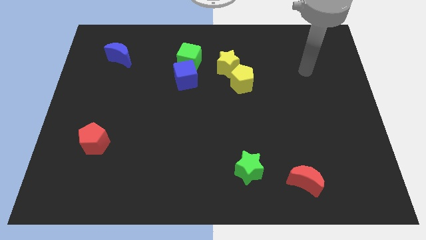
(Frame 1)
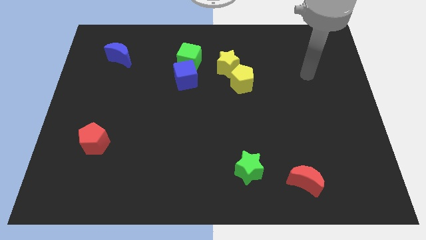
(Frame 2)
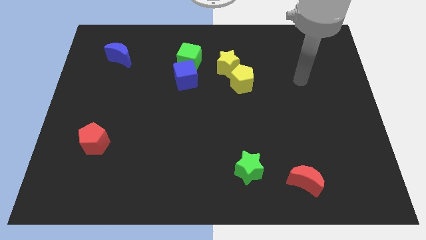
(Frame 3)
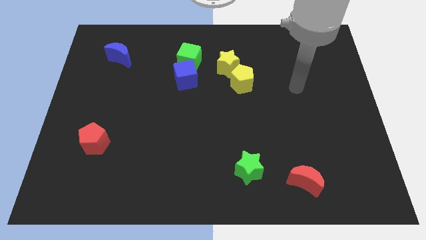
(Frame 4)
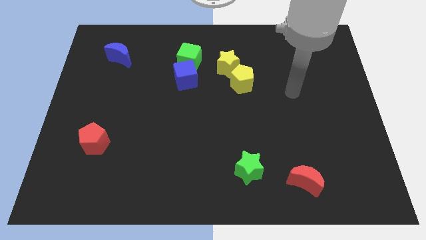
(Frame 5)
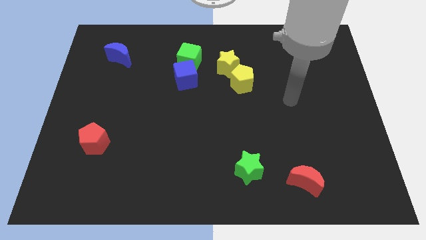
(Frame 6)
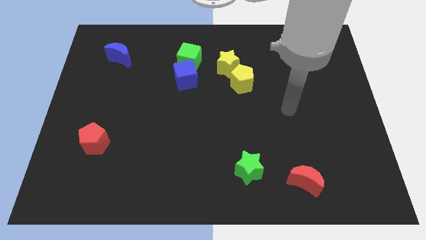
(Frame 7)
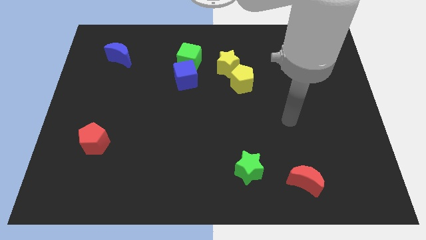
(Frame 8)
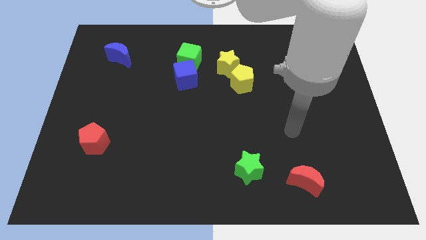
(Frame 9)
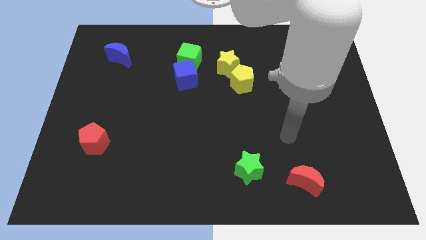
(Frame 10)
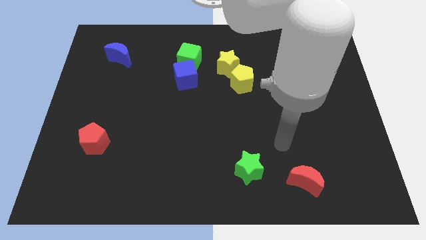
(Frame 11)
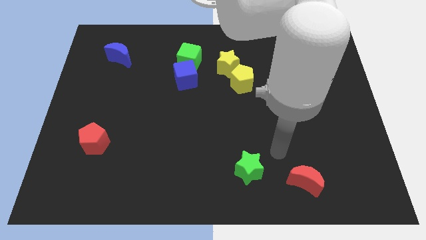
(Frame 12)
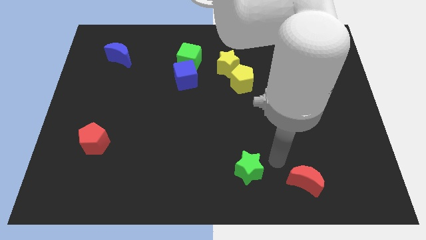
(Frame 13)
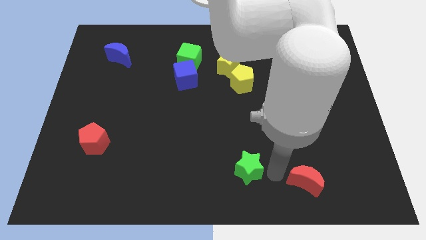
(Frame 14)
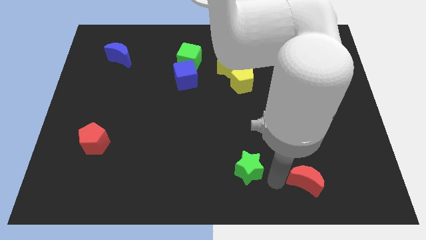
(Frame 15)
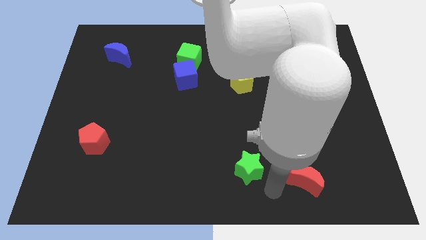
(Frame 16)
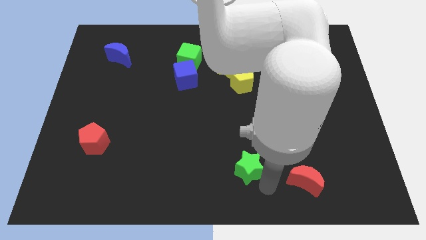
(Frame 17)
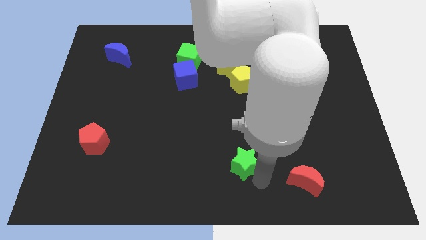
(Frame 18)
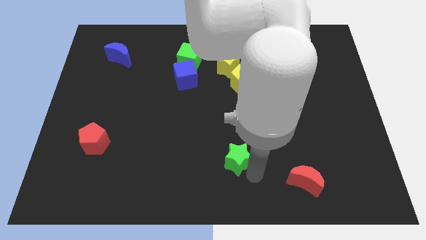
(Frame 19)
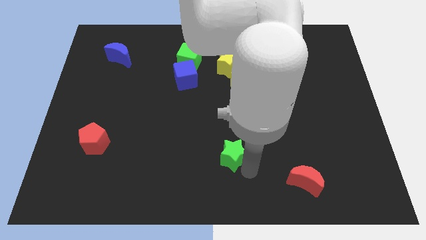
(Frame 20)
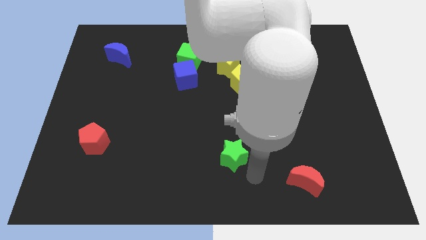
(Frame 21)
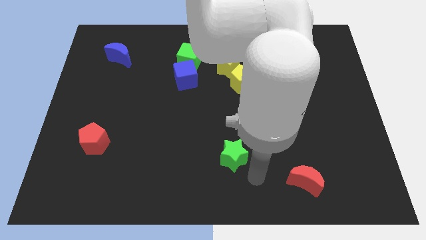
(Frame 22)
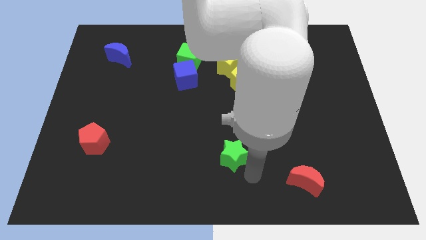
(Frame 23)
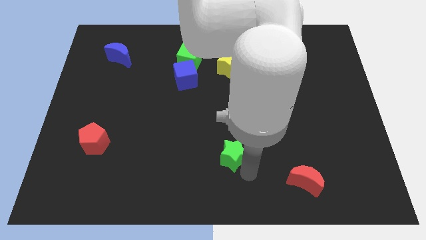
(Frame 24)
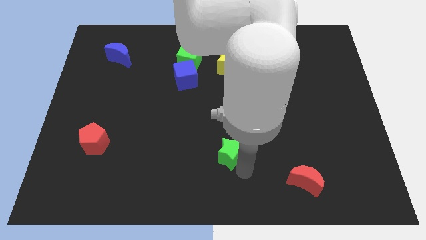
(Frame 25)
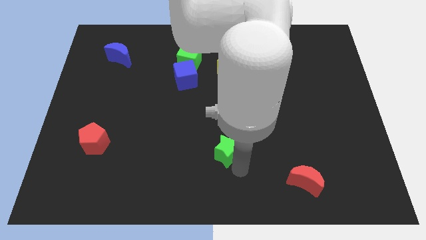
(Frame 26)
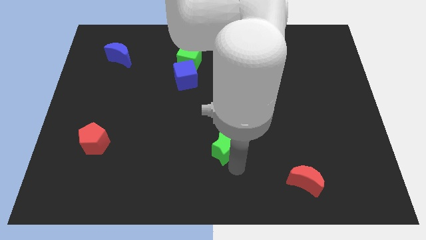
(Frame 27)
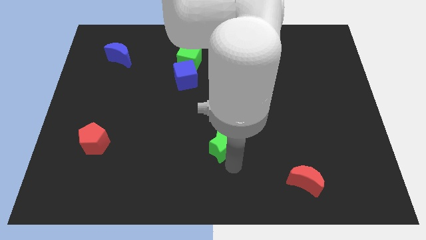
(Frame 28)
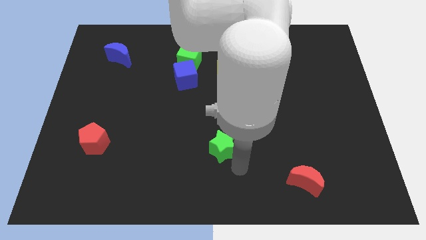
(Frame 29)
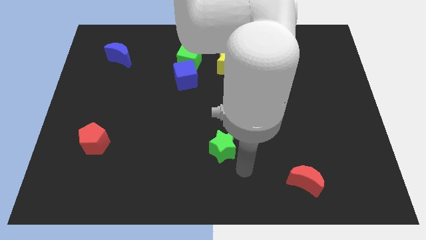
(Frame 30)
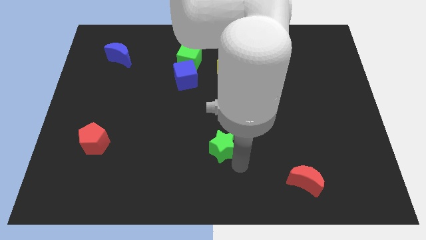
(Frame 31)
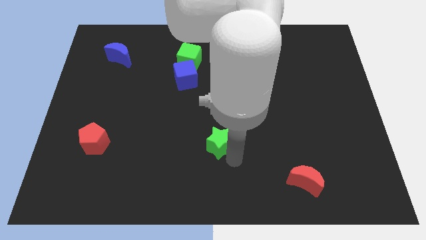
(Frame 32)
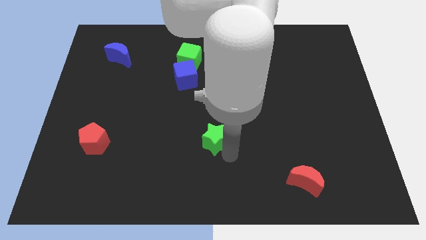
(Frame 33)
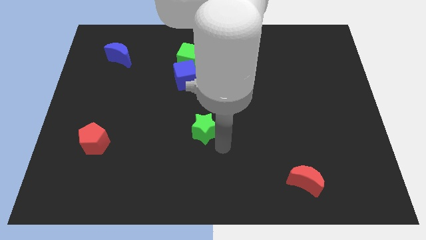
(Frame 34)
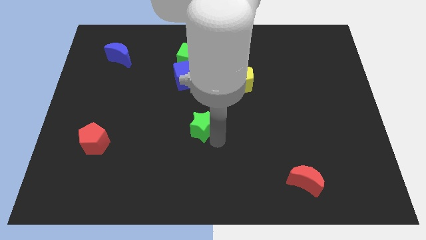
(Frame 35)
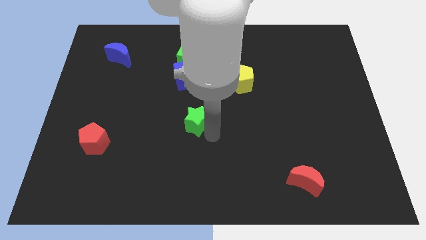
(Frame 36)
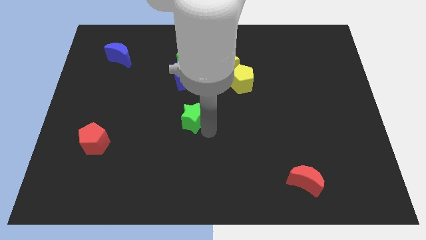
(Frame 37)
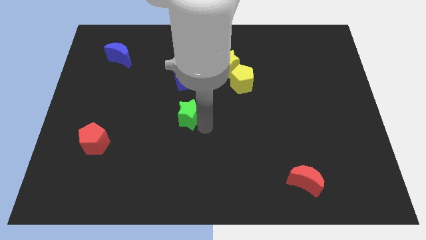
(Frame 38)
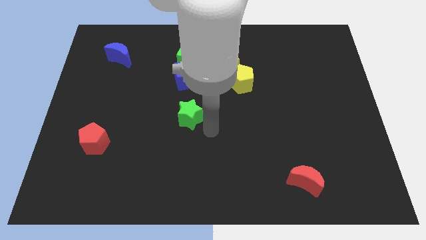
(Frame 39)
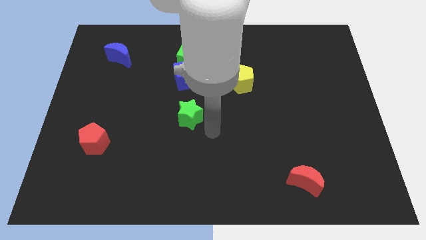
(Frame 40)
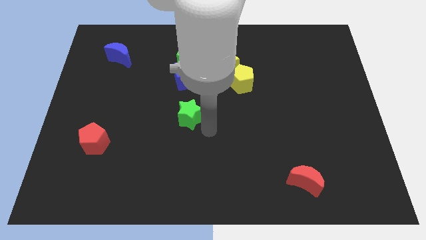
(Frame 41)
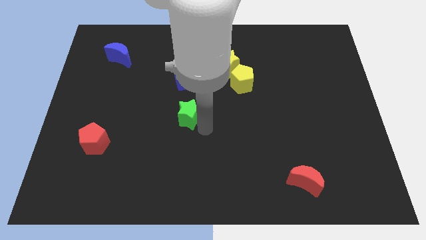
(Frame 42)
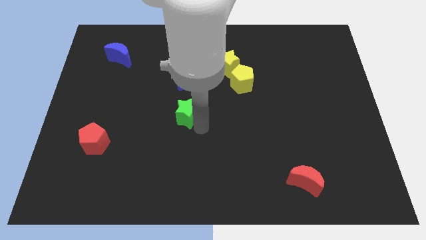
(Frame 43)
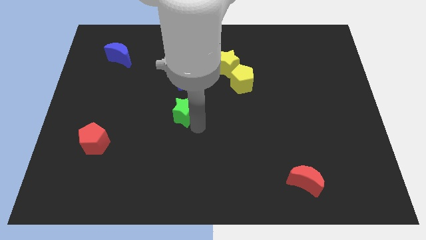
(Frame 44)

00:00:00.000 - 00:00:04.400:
slide the green star up and to the left diagonally

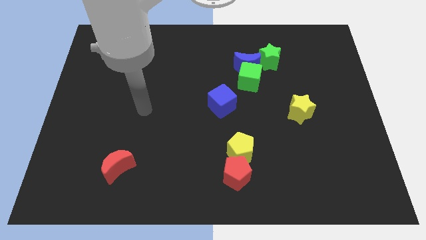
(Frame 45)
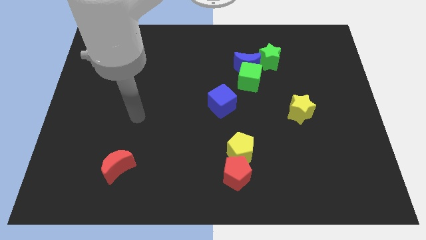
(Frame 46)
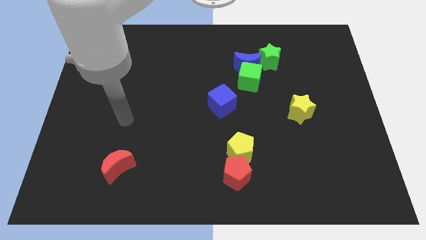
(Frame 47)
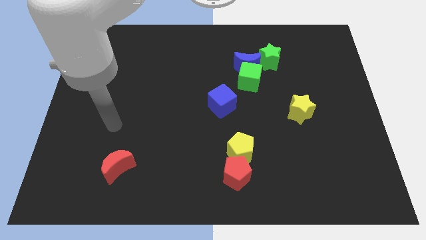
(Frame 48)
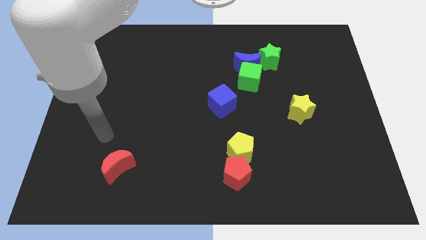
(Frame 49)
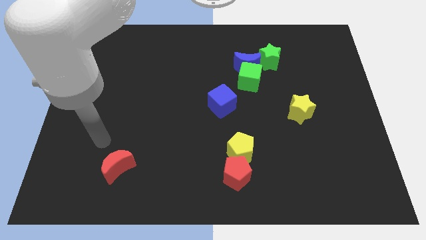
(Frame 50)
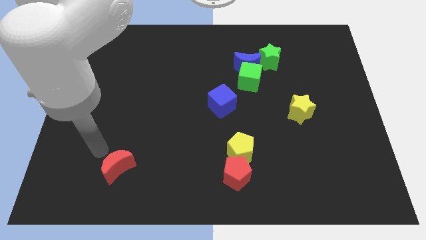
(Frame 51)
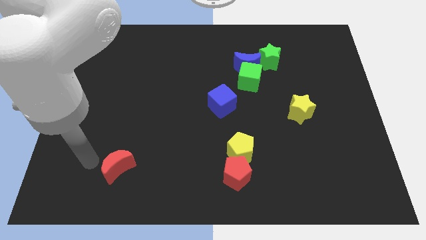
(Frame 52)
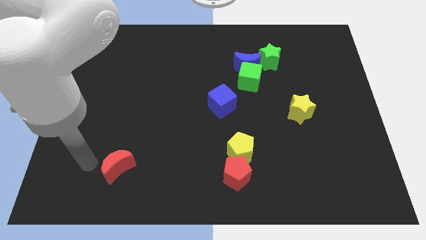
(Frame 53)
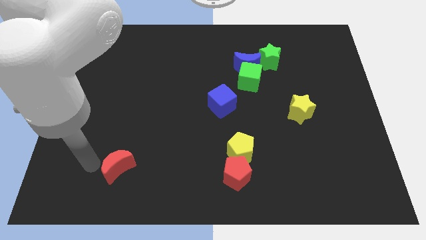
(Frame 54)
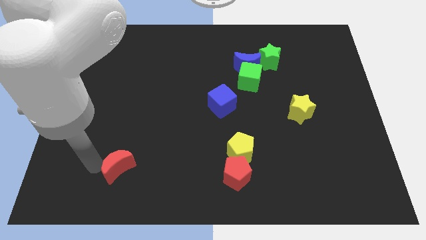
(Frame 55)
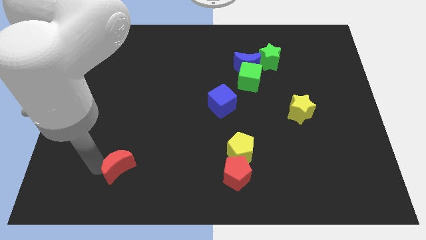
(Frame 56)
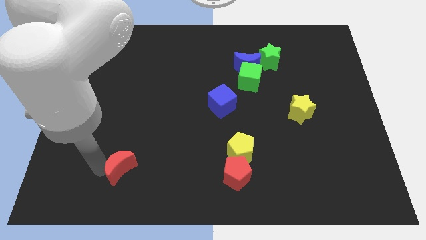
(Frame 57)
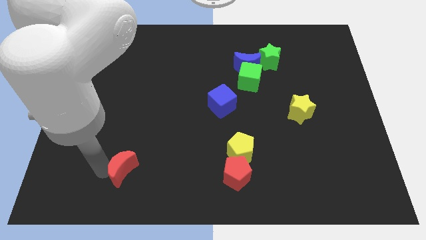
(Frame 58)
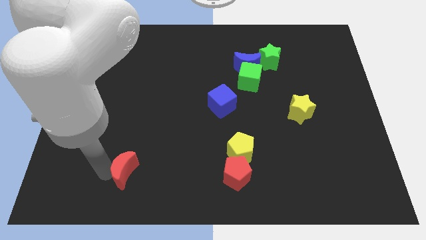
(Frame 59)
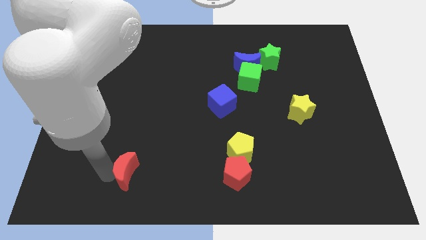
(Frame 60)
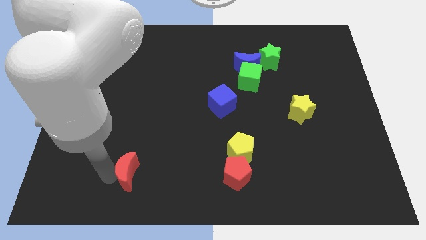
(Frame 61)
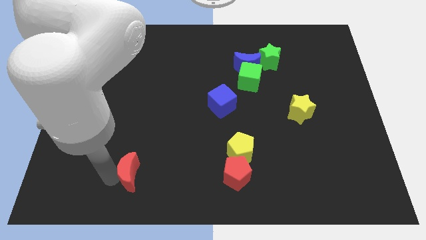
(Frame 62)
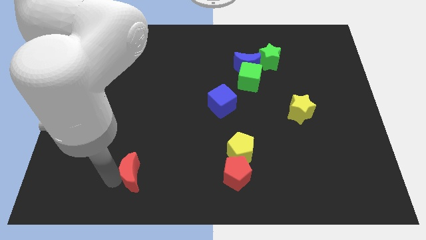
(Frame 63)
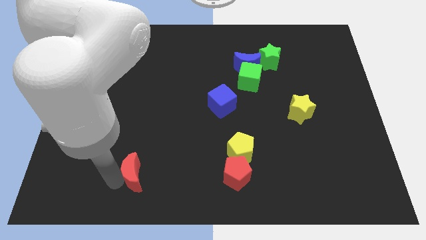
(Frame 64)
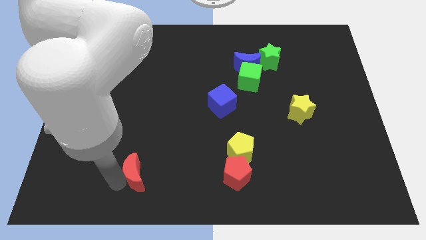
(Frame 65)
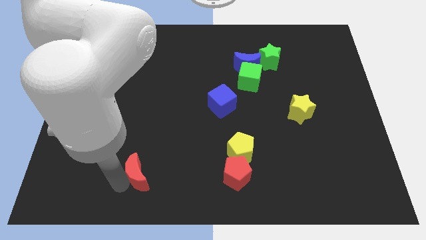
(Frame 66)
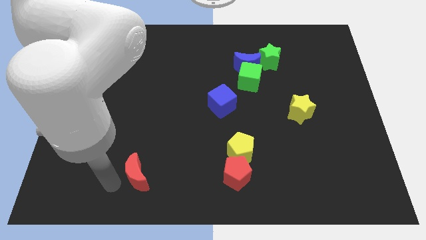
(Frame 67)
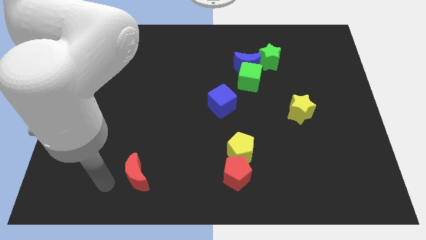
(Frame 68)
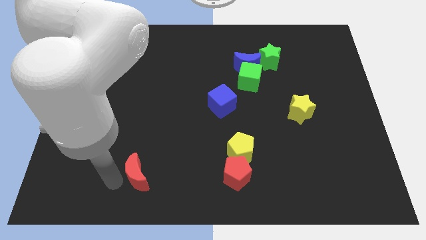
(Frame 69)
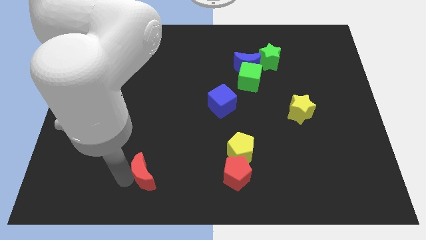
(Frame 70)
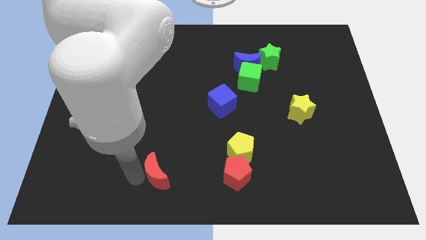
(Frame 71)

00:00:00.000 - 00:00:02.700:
move the red moon to the right a little

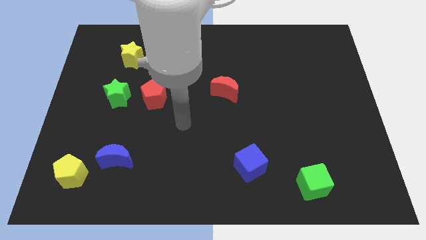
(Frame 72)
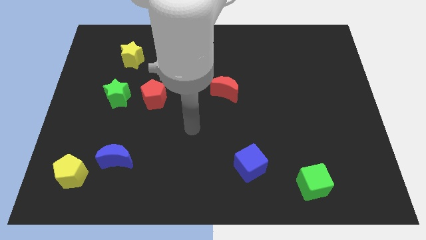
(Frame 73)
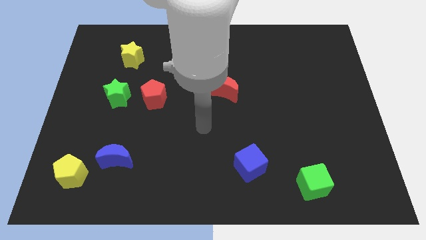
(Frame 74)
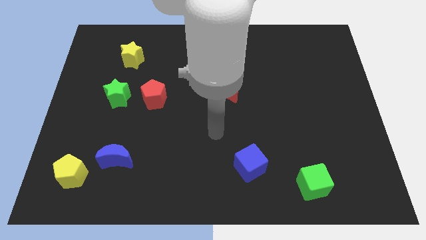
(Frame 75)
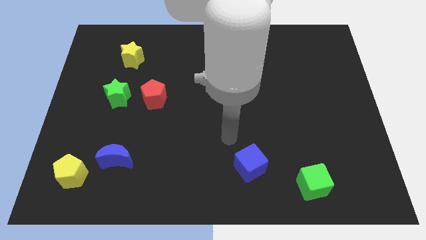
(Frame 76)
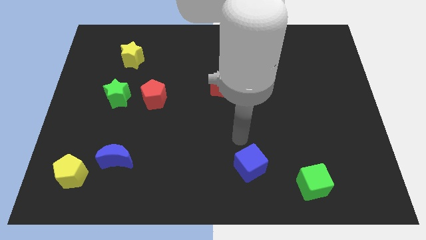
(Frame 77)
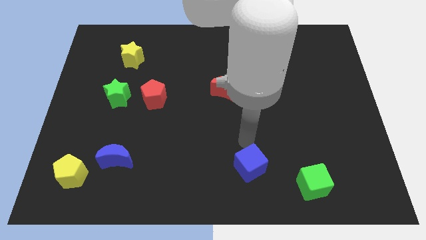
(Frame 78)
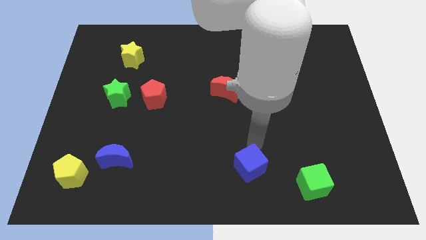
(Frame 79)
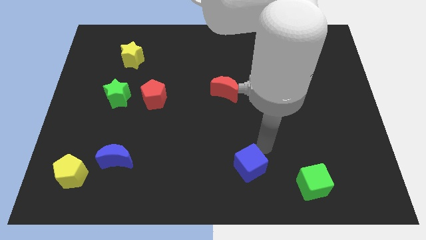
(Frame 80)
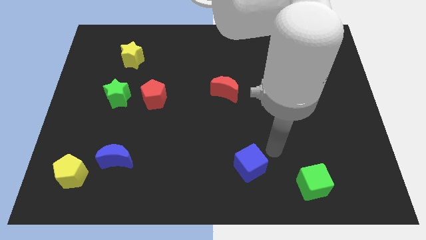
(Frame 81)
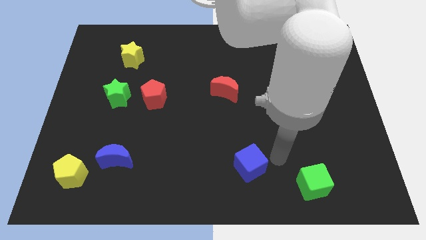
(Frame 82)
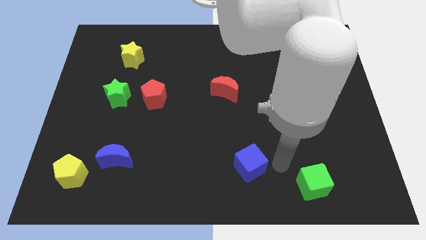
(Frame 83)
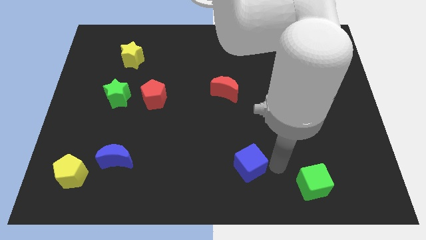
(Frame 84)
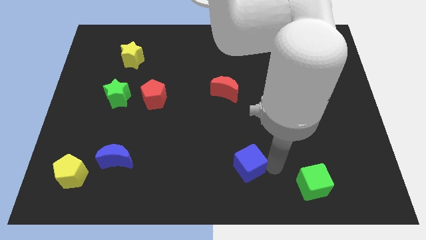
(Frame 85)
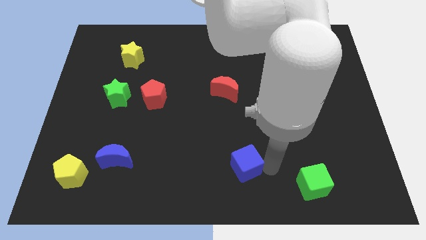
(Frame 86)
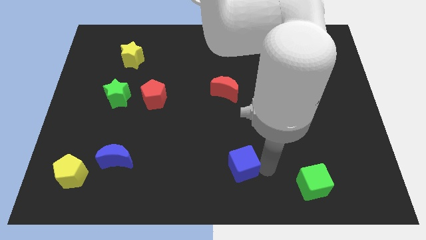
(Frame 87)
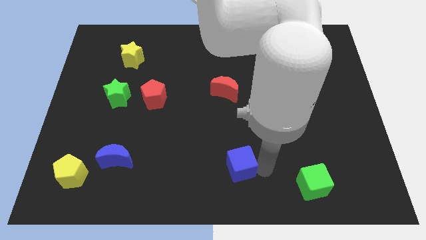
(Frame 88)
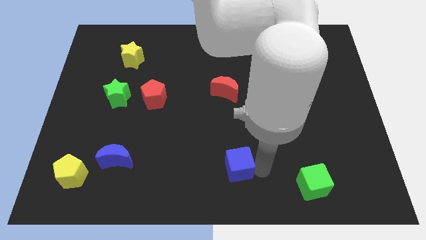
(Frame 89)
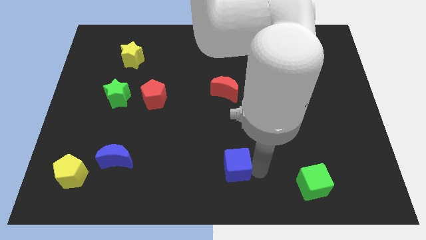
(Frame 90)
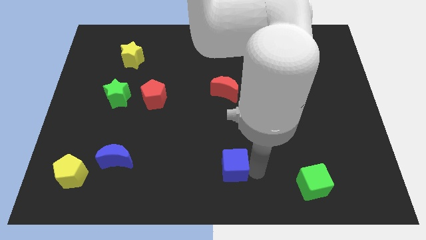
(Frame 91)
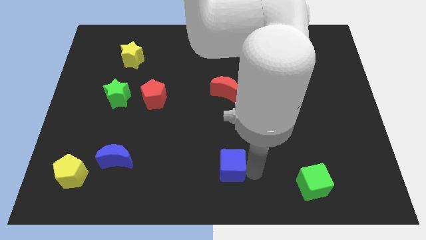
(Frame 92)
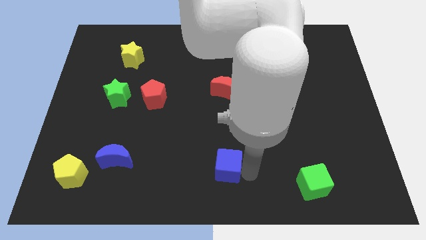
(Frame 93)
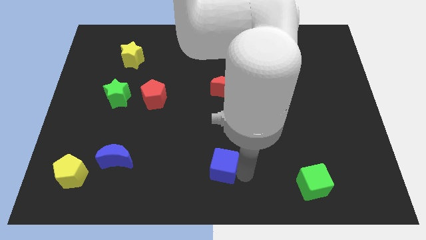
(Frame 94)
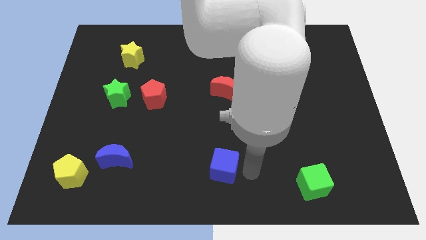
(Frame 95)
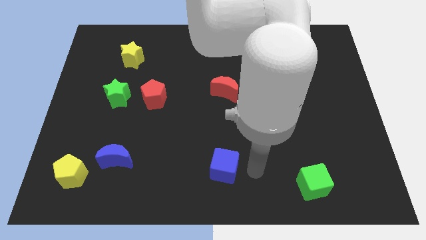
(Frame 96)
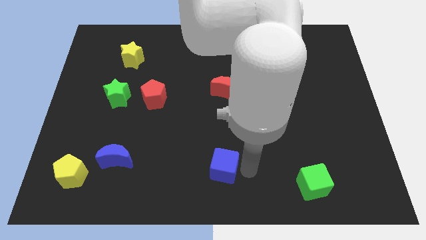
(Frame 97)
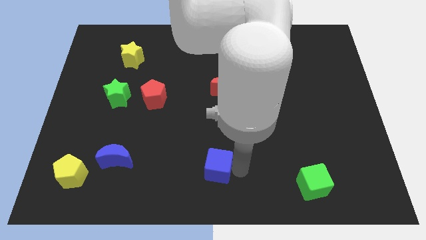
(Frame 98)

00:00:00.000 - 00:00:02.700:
slightly slide the blue cube left
